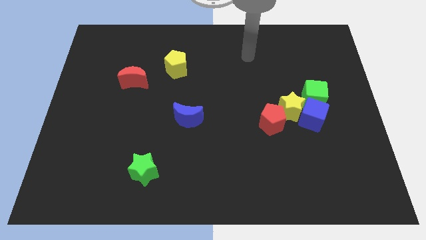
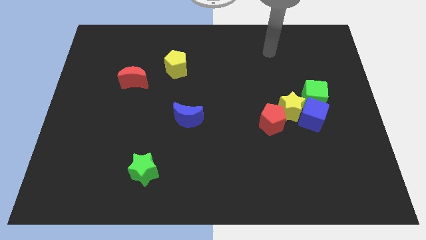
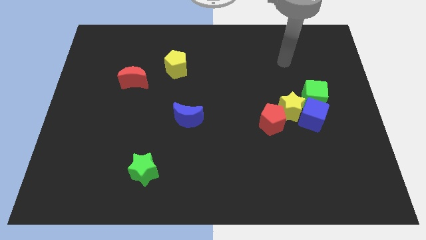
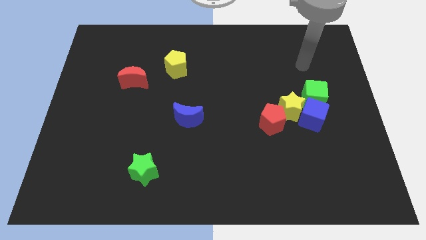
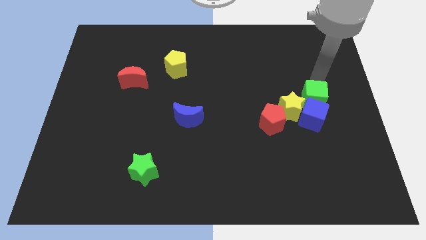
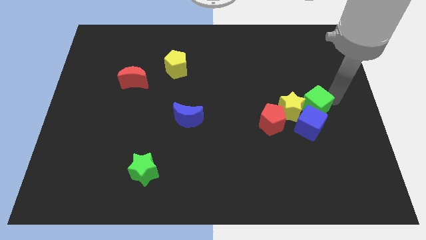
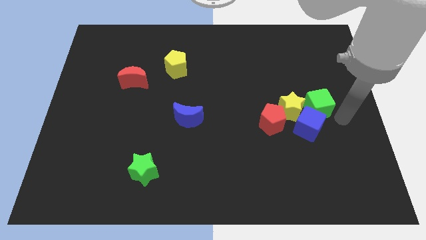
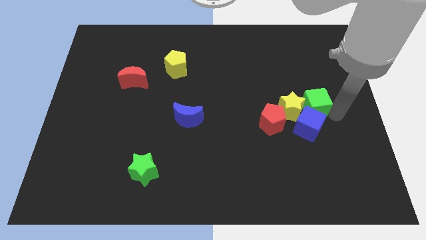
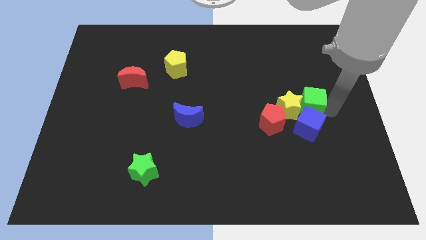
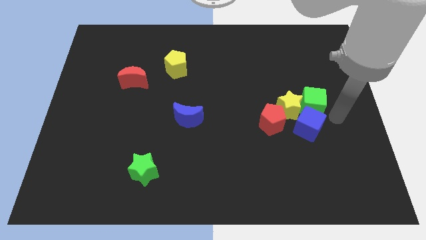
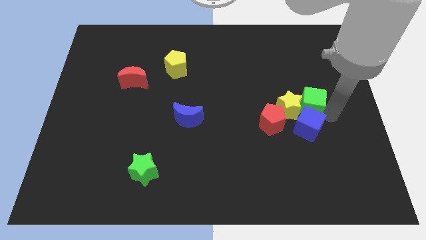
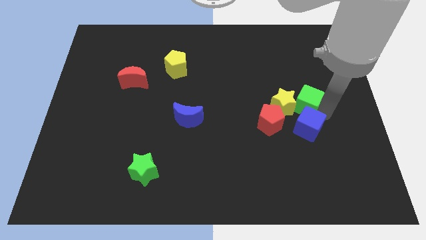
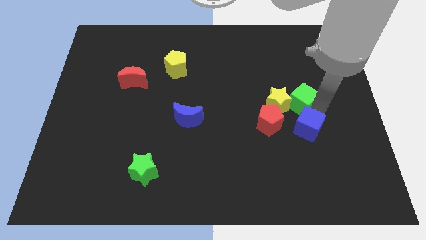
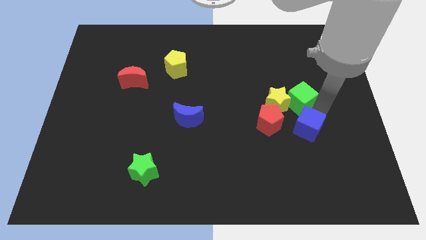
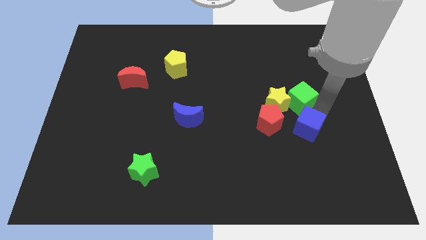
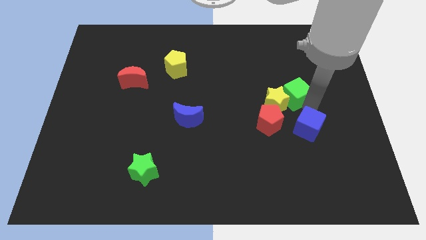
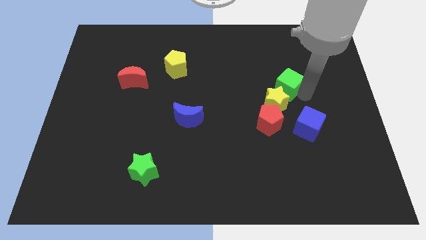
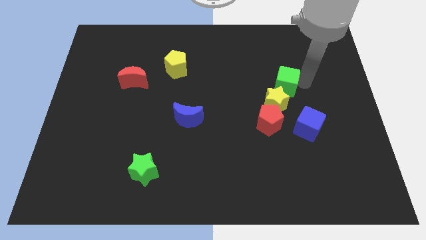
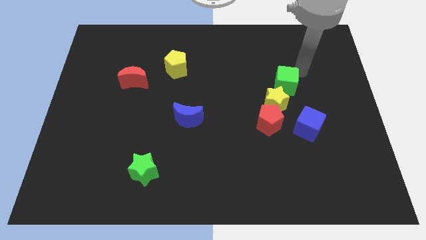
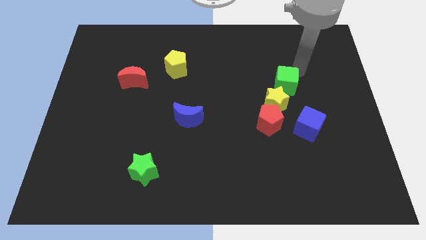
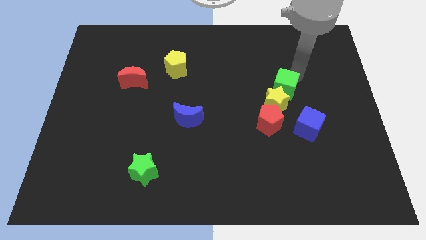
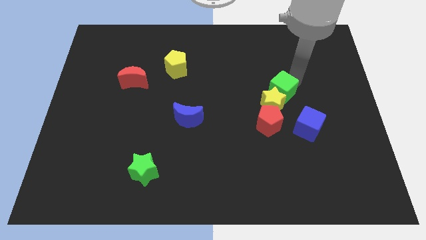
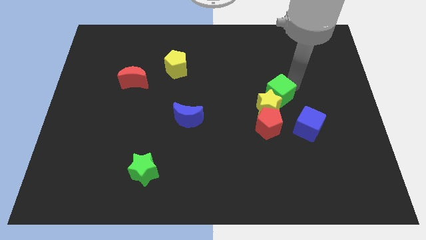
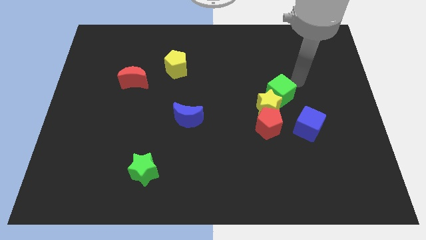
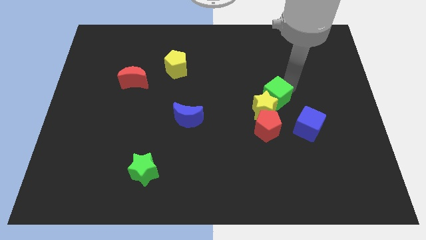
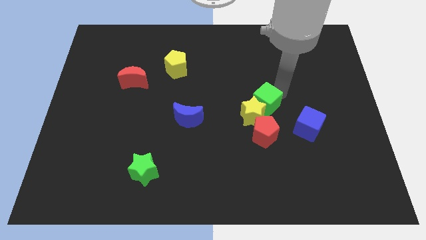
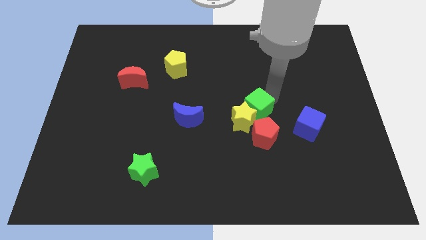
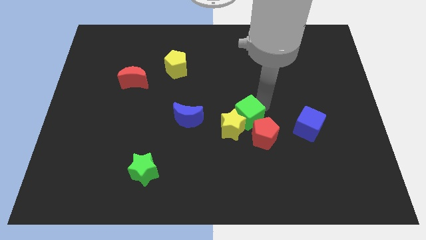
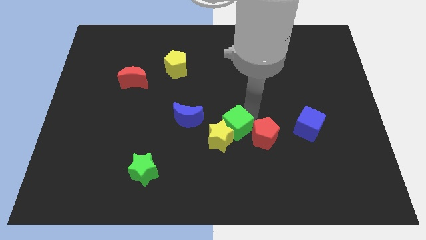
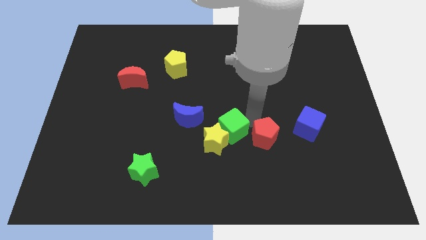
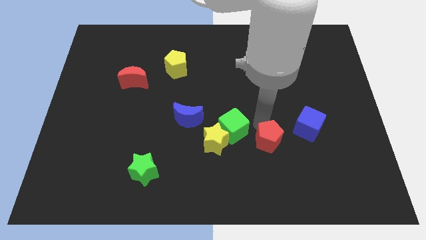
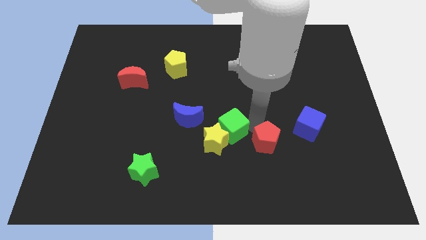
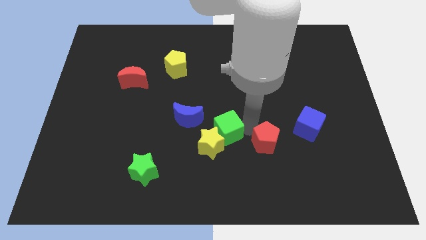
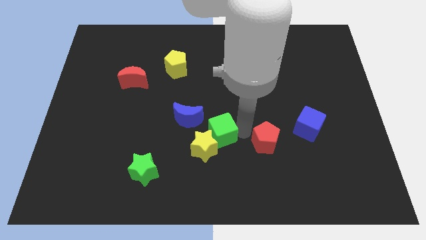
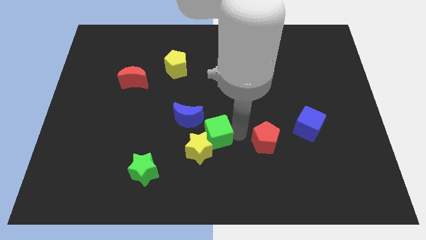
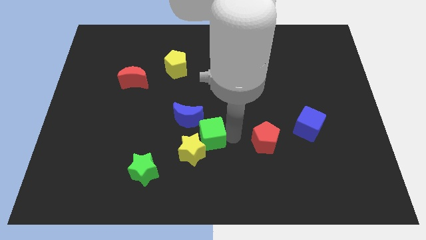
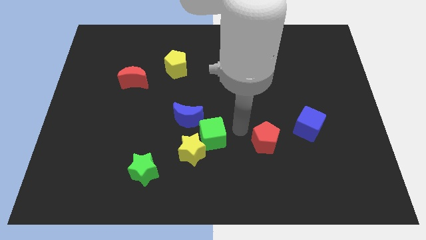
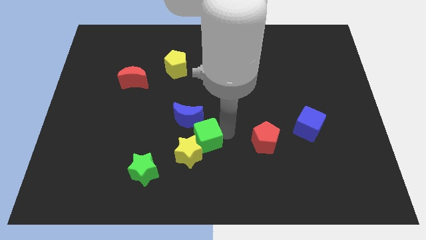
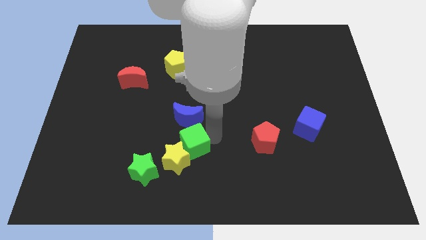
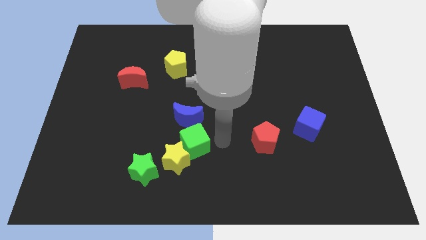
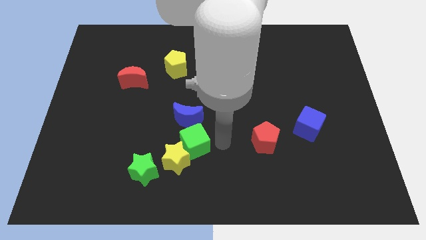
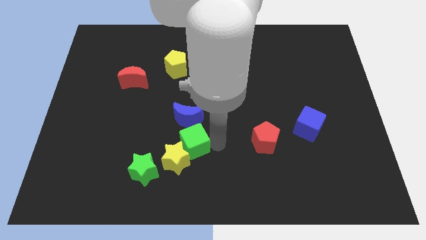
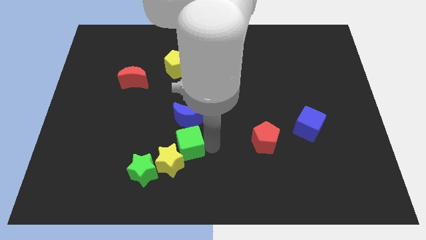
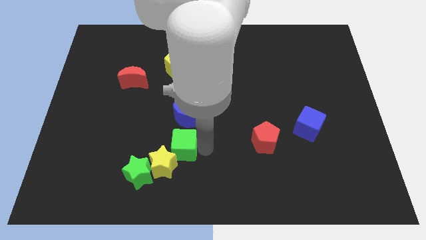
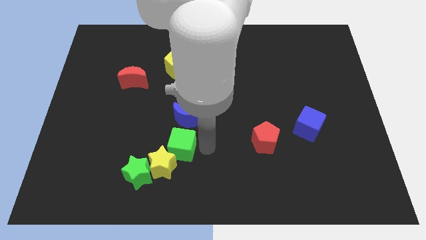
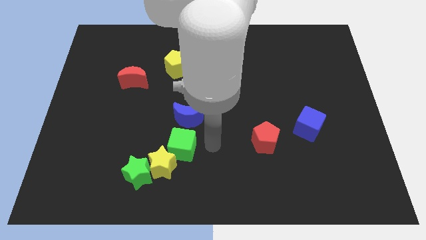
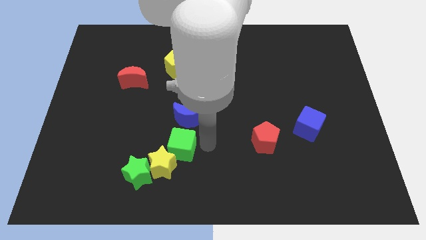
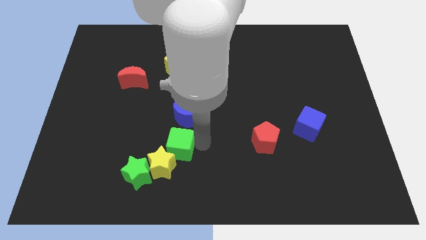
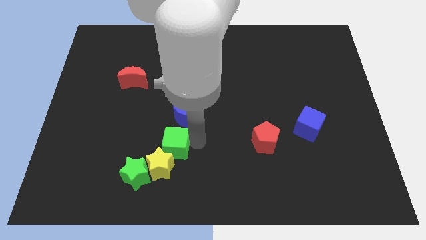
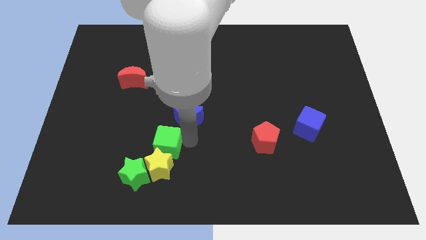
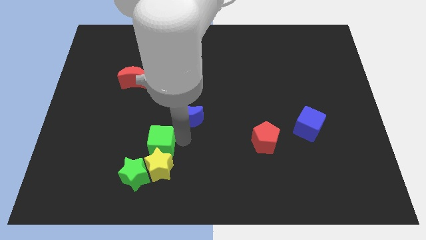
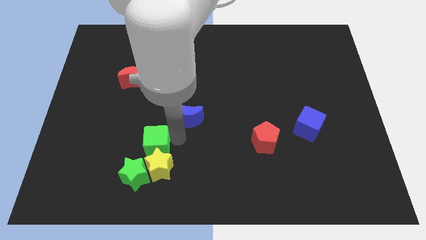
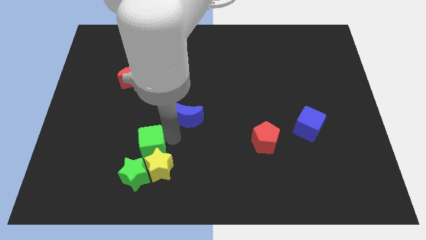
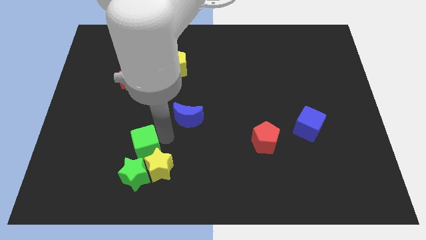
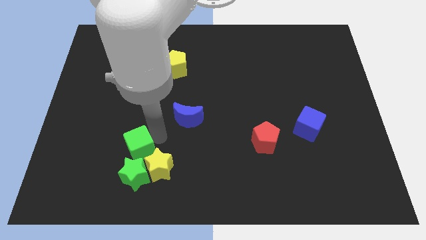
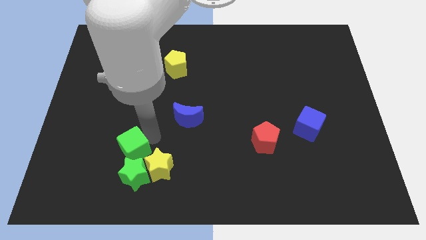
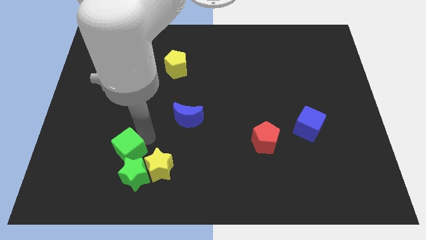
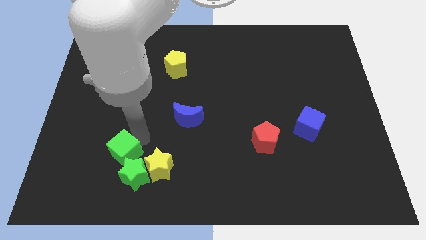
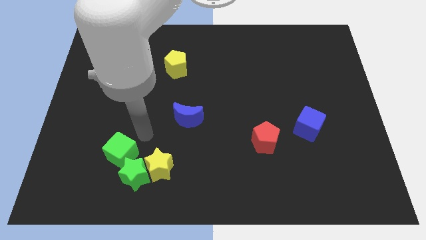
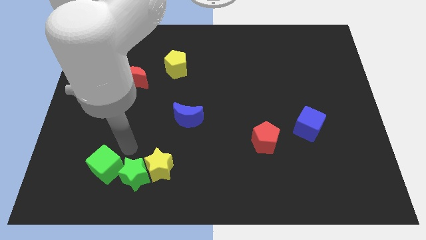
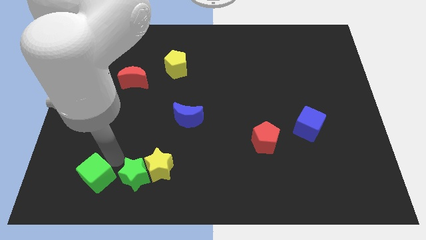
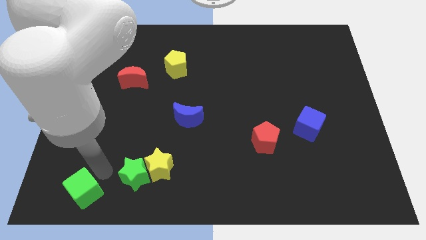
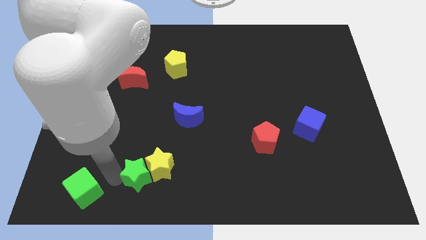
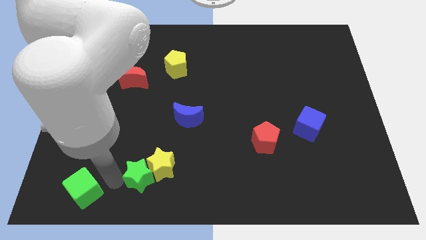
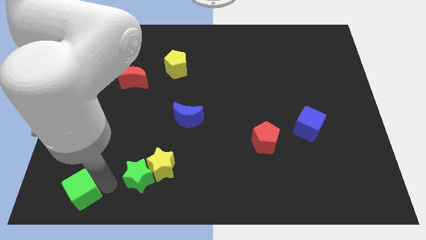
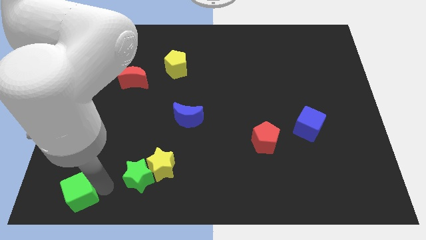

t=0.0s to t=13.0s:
push the green cube to the bottom left
